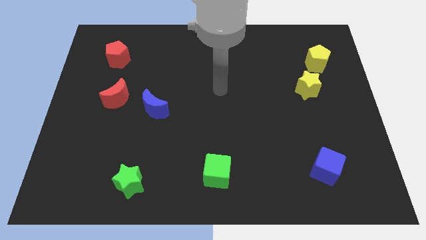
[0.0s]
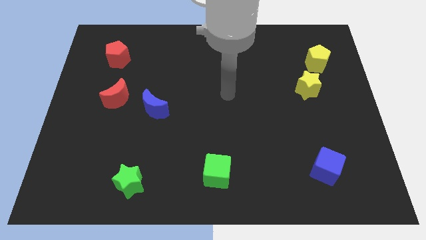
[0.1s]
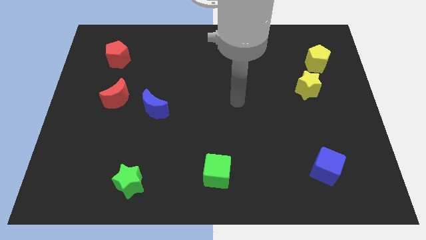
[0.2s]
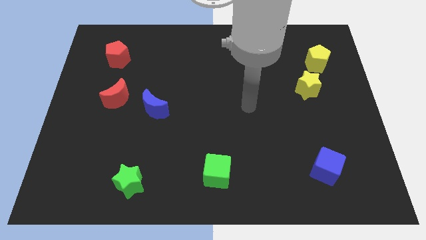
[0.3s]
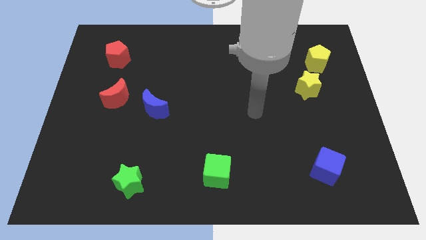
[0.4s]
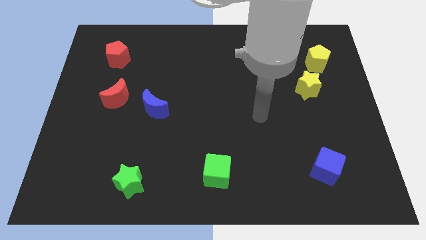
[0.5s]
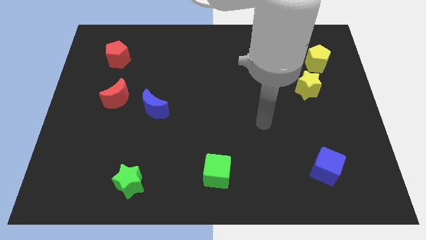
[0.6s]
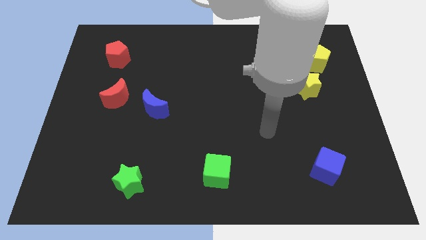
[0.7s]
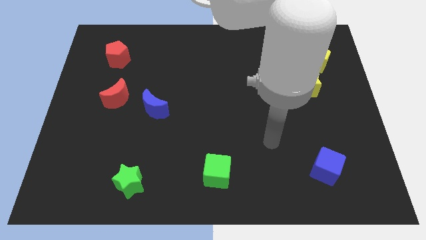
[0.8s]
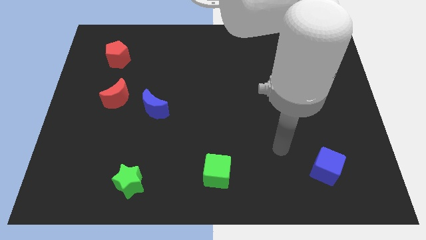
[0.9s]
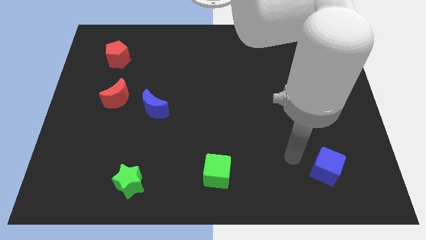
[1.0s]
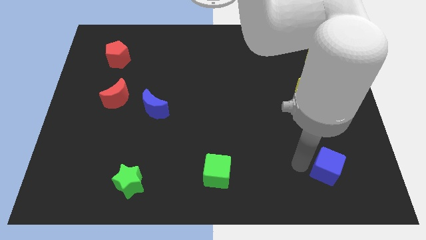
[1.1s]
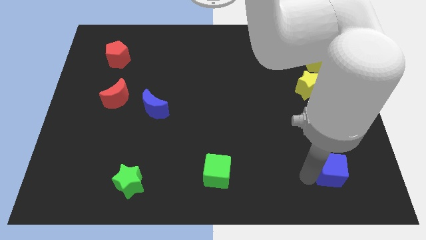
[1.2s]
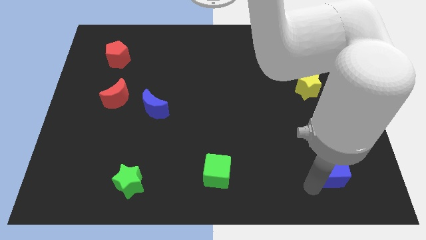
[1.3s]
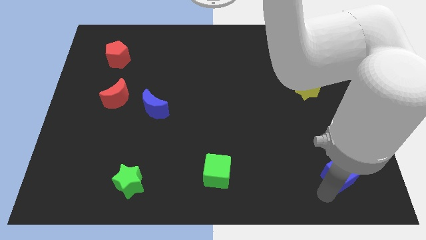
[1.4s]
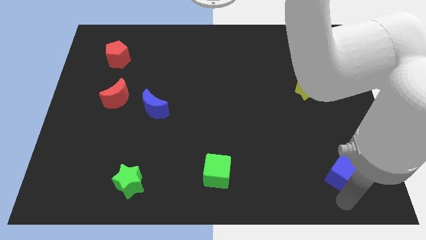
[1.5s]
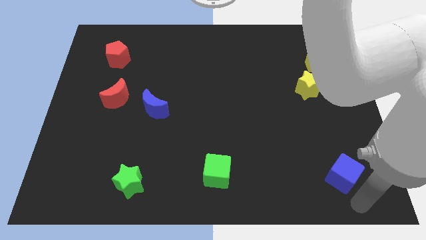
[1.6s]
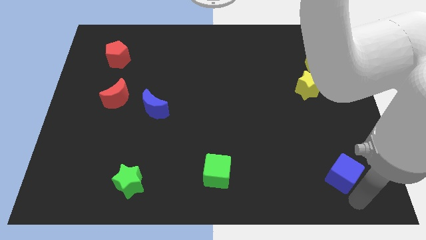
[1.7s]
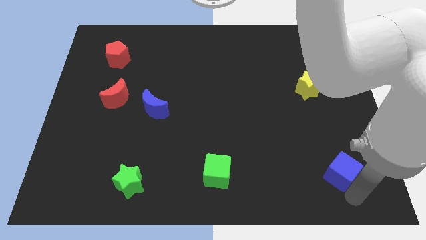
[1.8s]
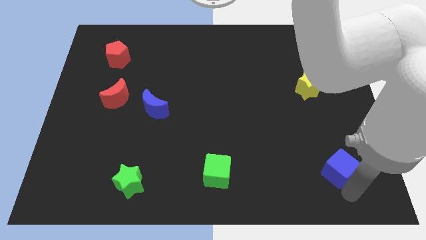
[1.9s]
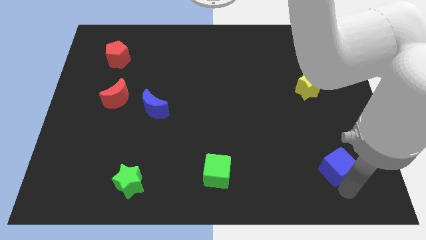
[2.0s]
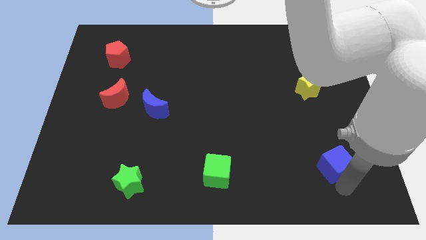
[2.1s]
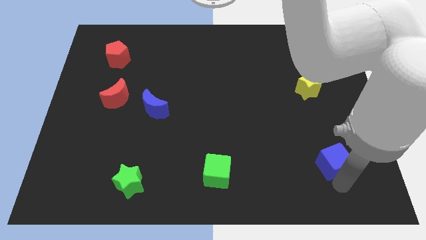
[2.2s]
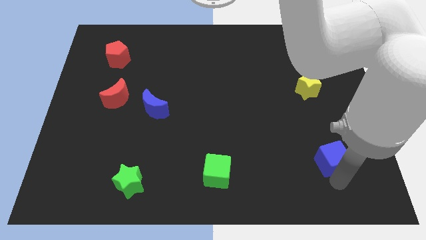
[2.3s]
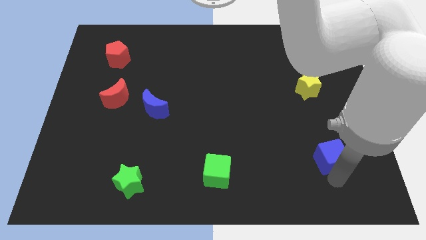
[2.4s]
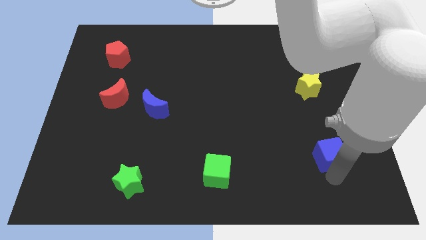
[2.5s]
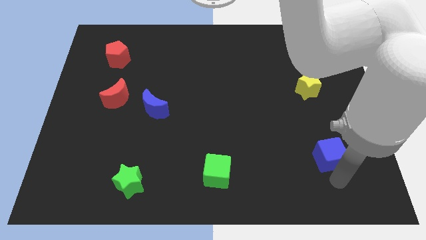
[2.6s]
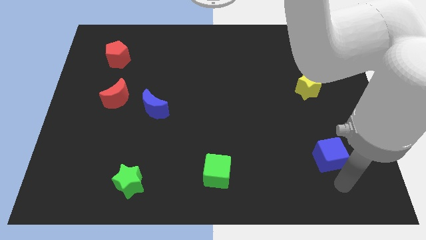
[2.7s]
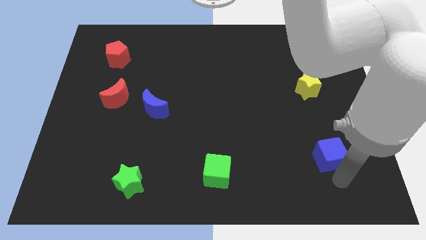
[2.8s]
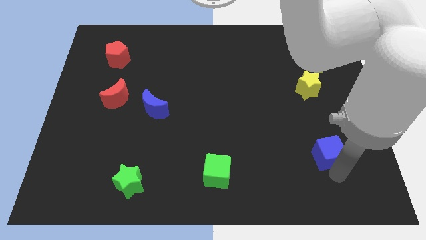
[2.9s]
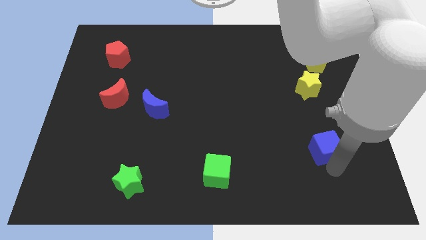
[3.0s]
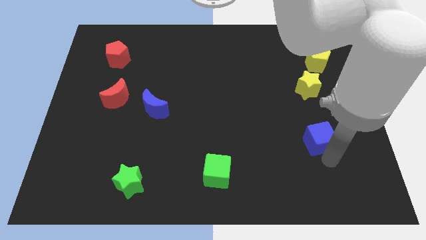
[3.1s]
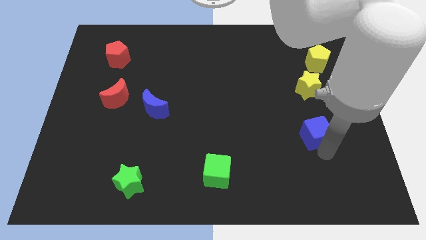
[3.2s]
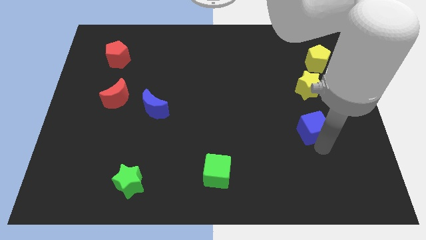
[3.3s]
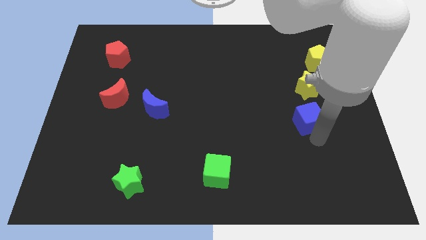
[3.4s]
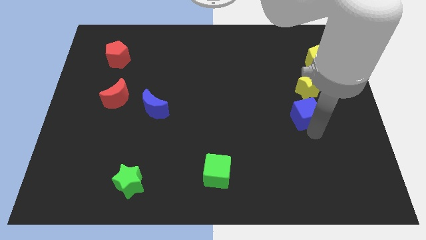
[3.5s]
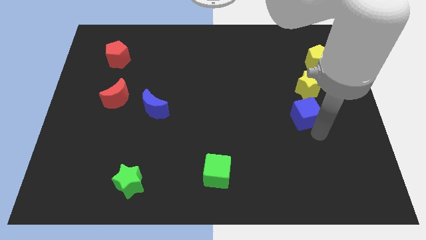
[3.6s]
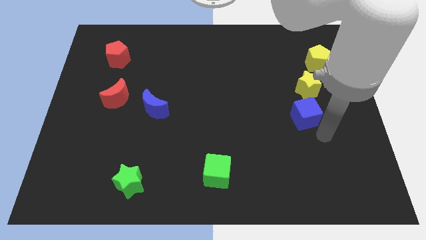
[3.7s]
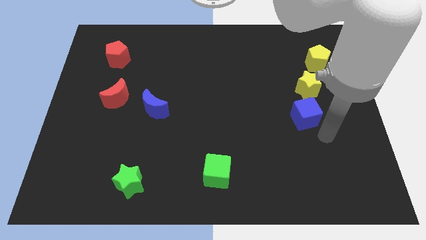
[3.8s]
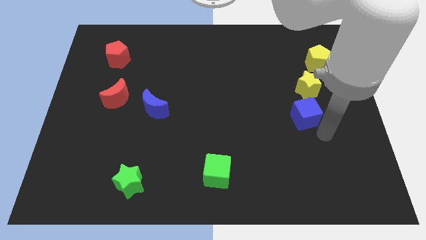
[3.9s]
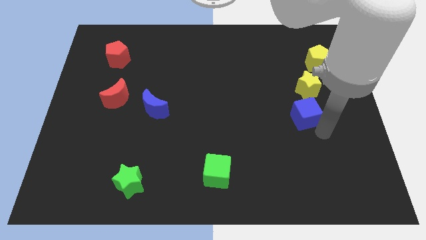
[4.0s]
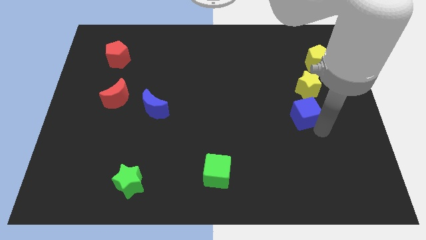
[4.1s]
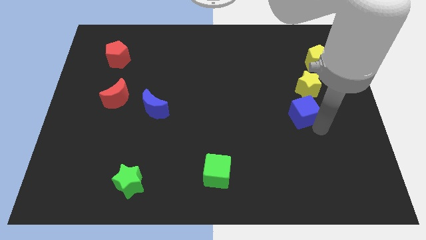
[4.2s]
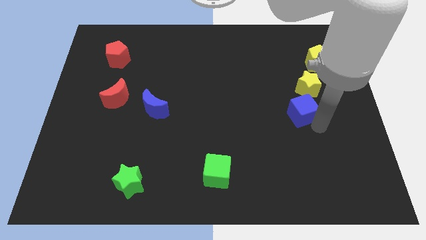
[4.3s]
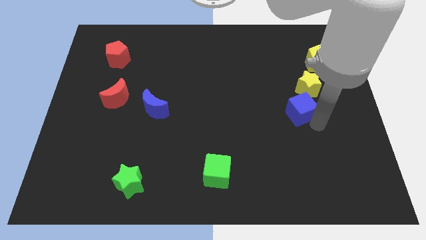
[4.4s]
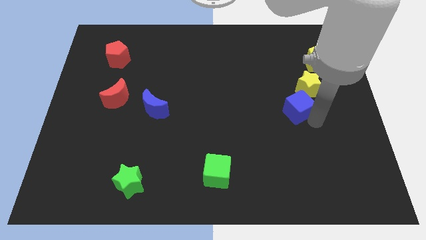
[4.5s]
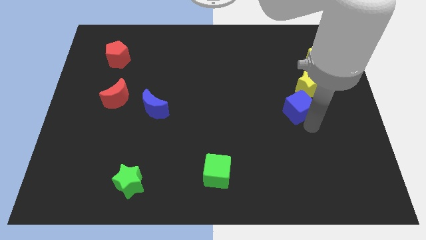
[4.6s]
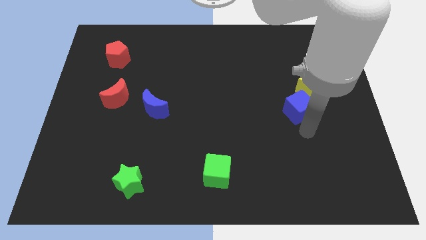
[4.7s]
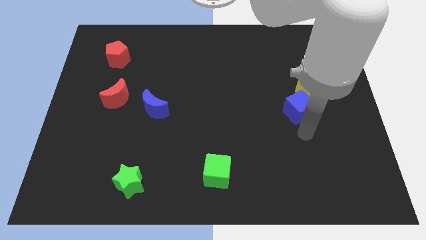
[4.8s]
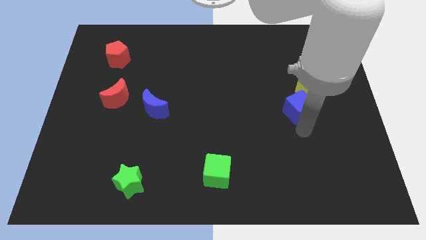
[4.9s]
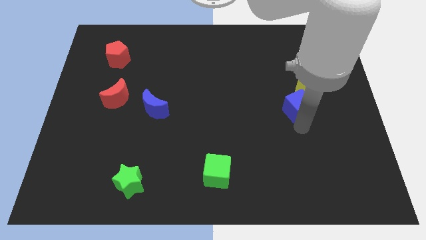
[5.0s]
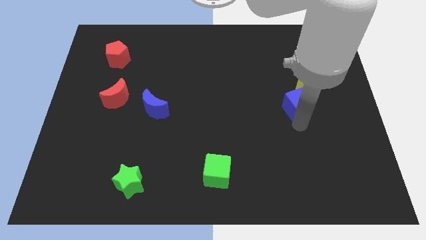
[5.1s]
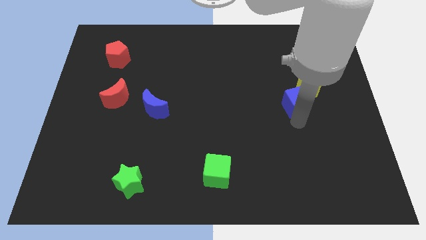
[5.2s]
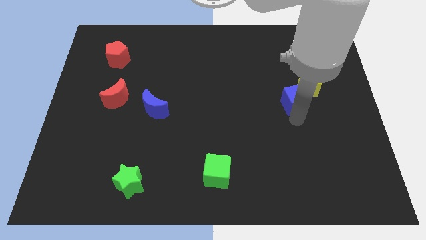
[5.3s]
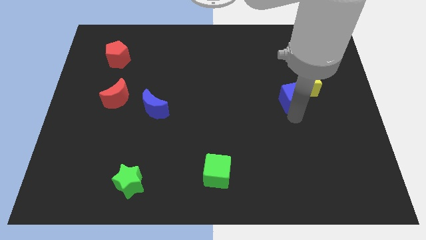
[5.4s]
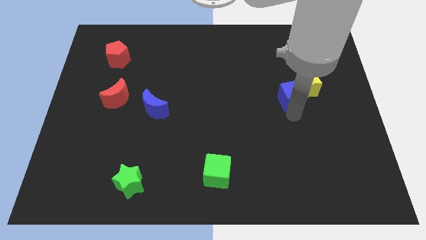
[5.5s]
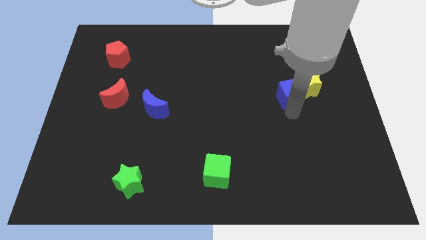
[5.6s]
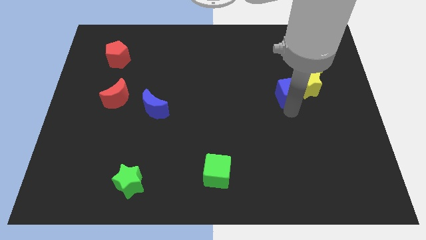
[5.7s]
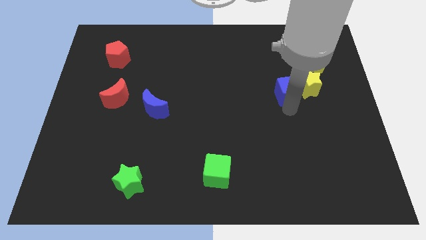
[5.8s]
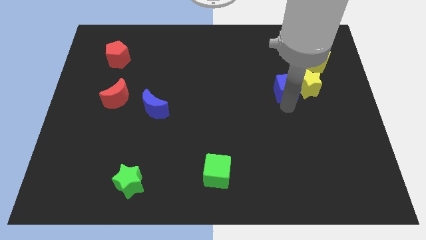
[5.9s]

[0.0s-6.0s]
move the blue cube upwards

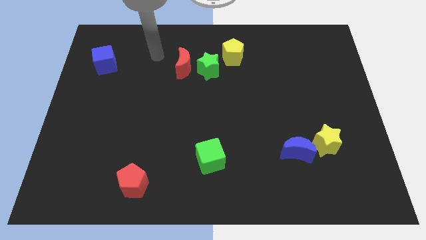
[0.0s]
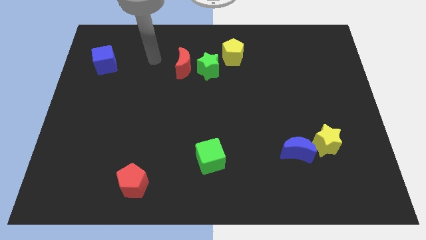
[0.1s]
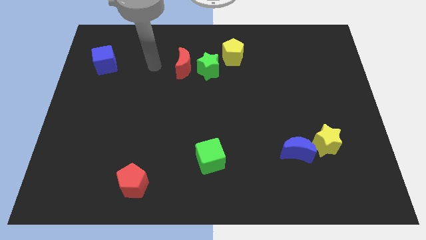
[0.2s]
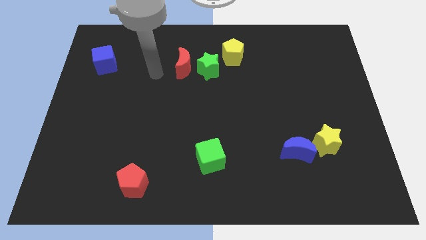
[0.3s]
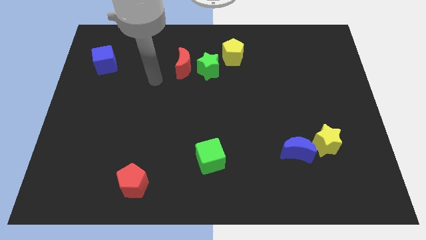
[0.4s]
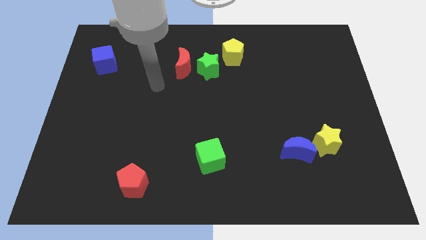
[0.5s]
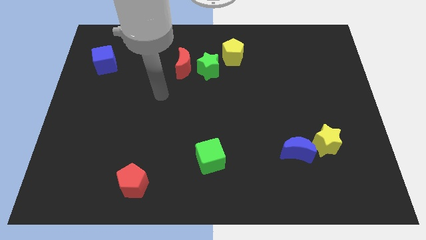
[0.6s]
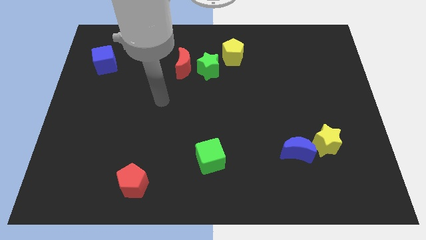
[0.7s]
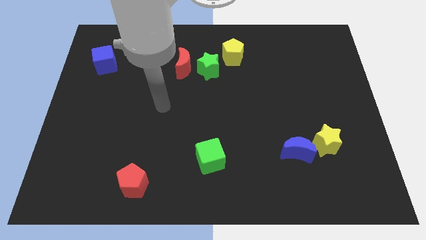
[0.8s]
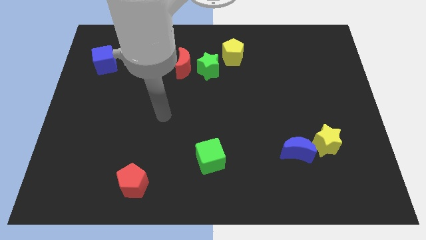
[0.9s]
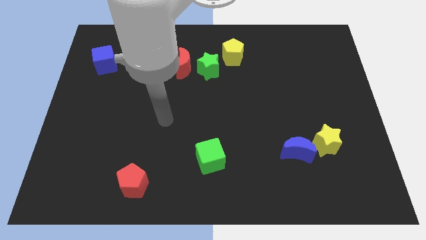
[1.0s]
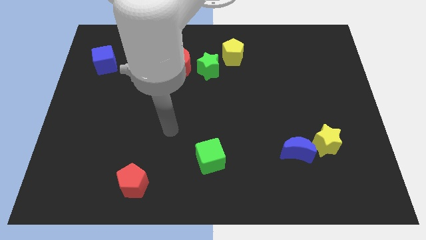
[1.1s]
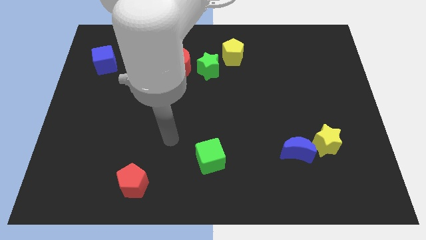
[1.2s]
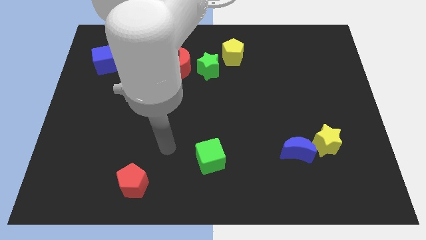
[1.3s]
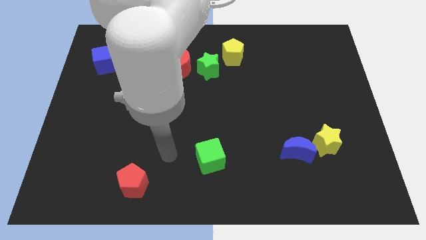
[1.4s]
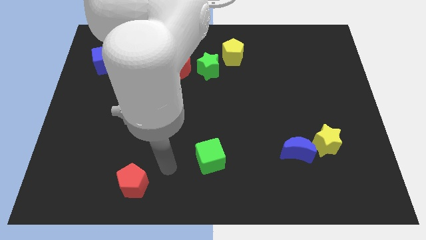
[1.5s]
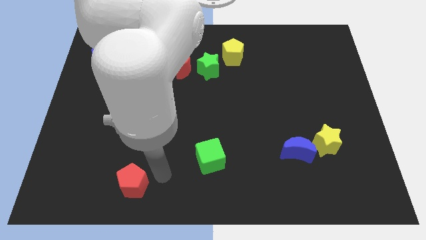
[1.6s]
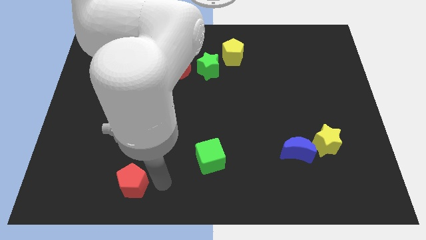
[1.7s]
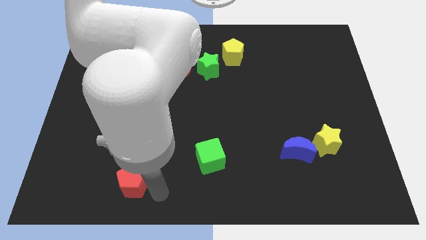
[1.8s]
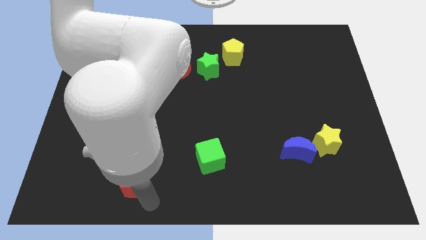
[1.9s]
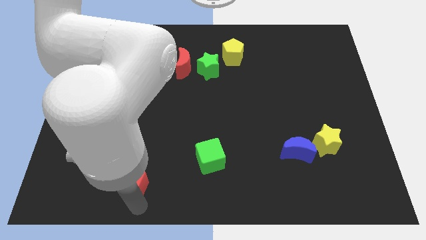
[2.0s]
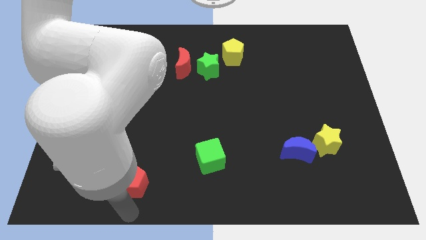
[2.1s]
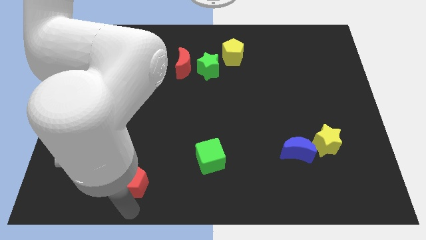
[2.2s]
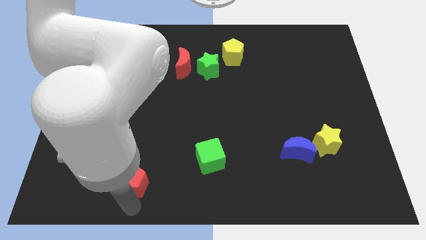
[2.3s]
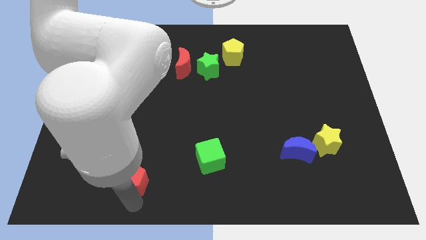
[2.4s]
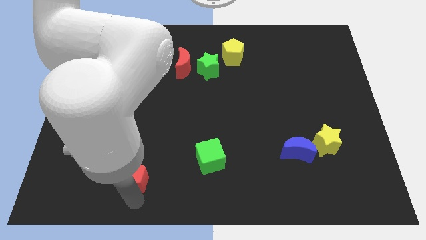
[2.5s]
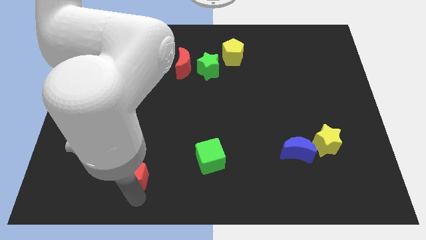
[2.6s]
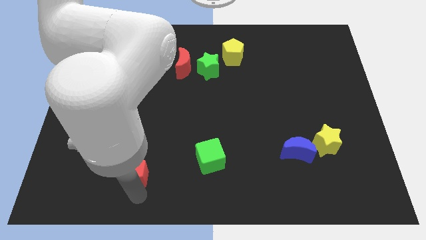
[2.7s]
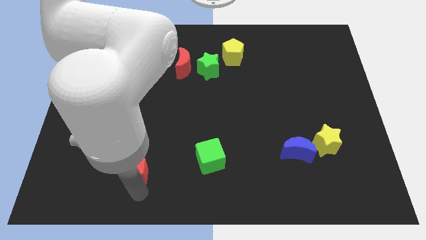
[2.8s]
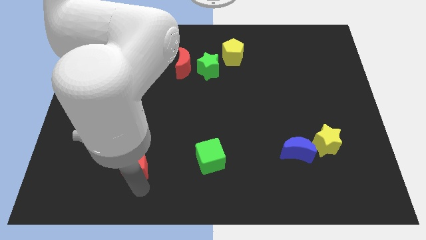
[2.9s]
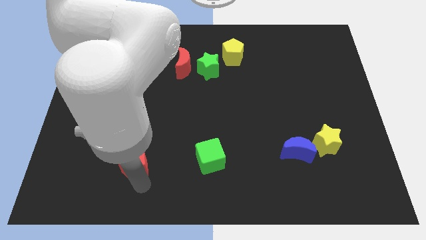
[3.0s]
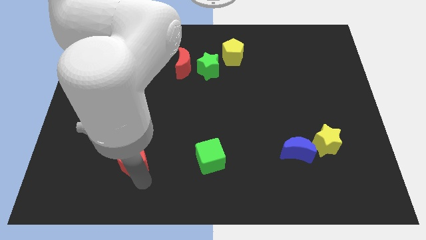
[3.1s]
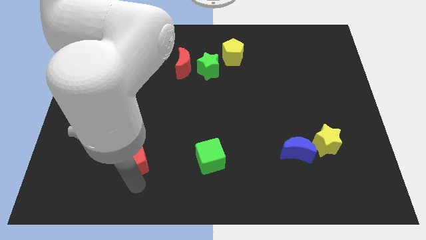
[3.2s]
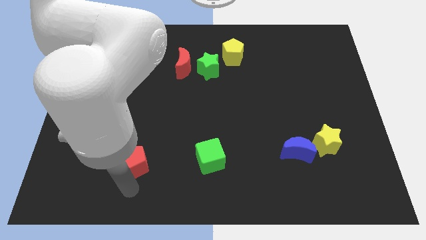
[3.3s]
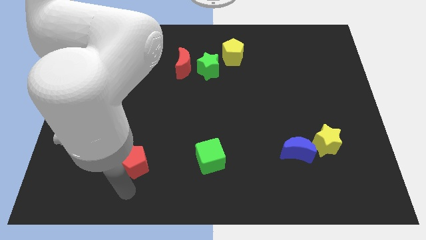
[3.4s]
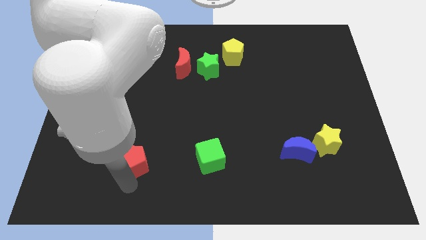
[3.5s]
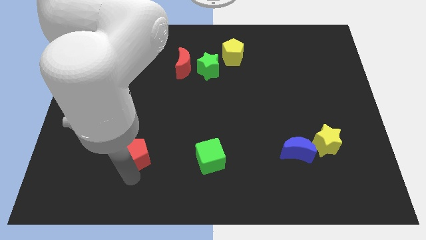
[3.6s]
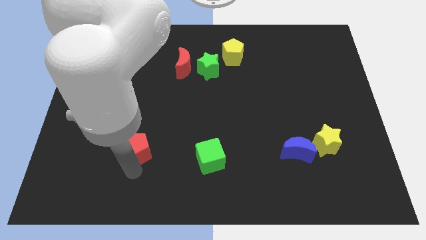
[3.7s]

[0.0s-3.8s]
push the red pentagon up slightly
